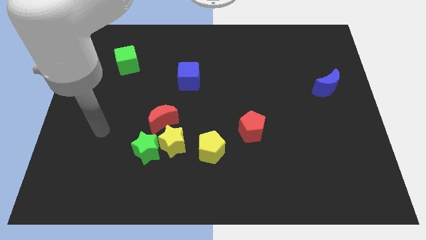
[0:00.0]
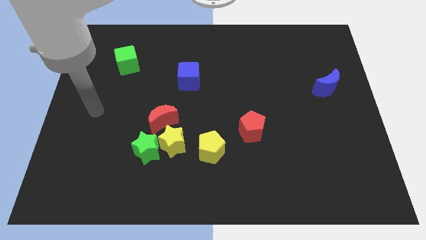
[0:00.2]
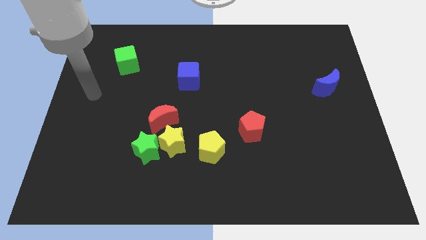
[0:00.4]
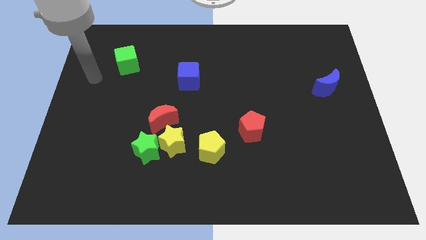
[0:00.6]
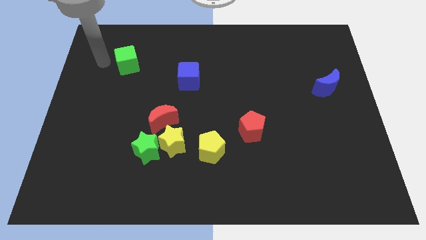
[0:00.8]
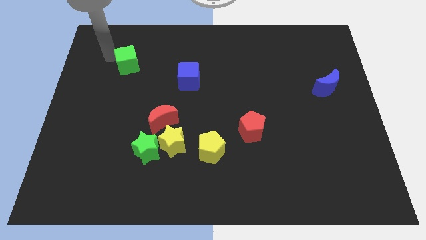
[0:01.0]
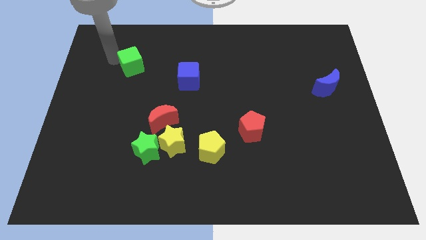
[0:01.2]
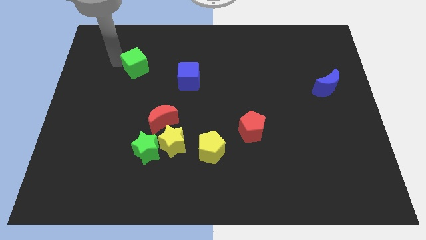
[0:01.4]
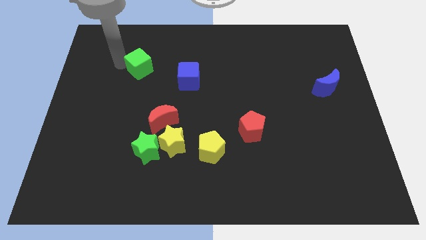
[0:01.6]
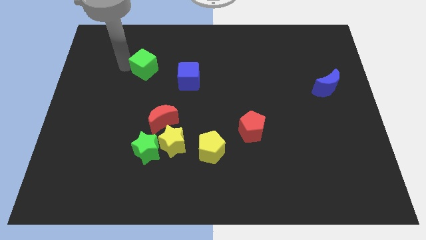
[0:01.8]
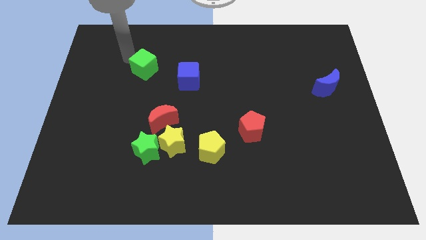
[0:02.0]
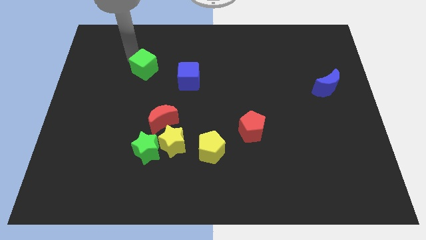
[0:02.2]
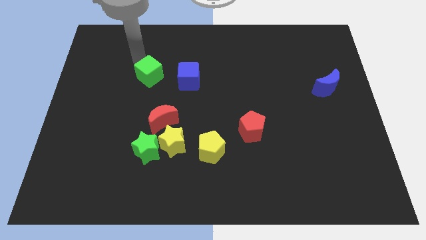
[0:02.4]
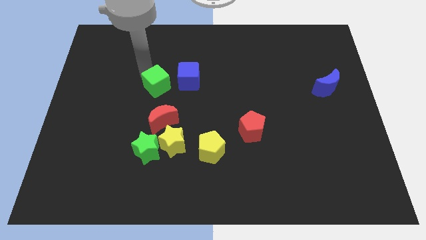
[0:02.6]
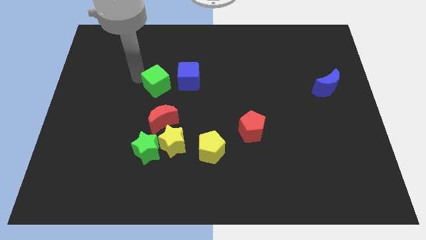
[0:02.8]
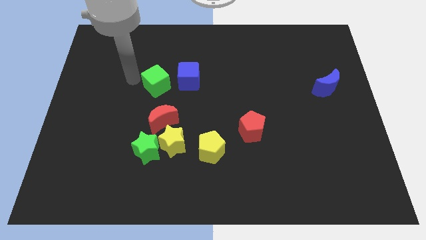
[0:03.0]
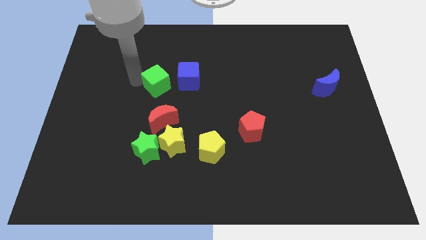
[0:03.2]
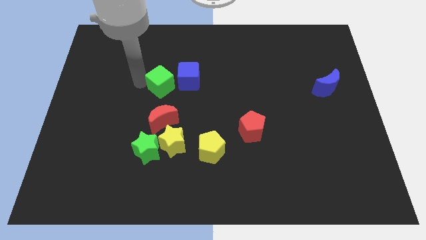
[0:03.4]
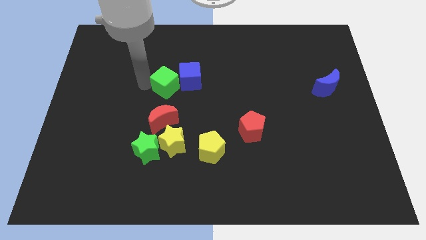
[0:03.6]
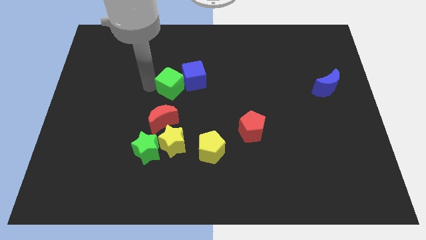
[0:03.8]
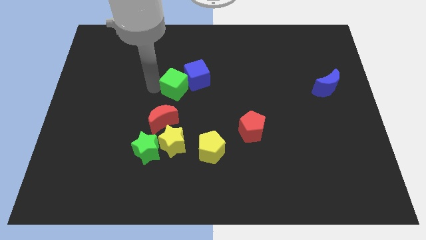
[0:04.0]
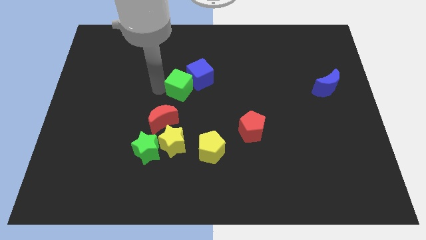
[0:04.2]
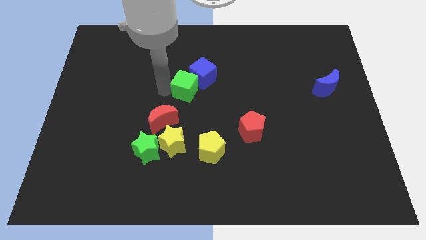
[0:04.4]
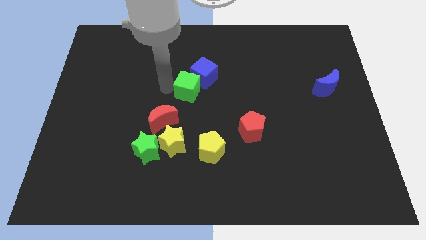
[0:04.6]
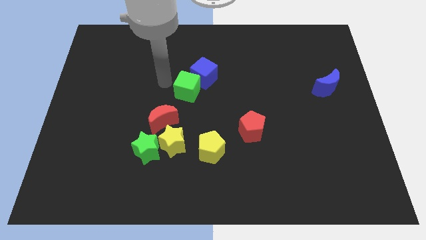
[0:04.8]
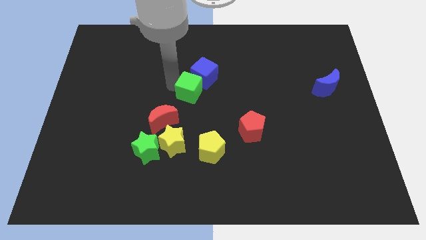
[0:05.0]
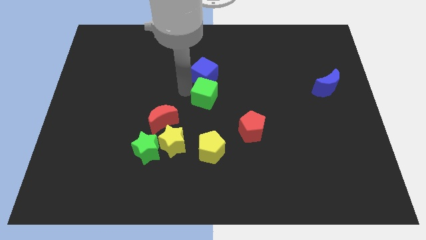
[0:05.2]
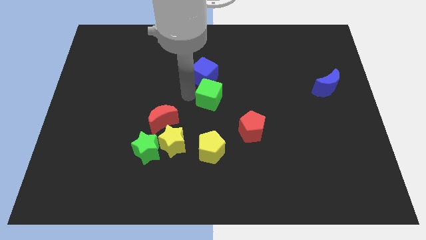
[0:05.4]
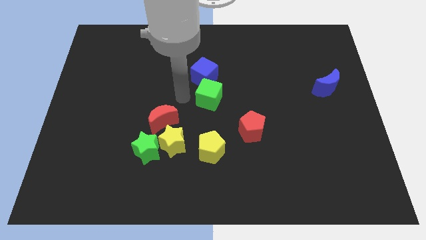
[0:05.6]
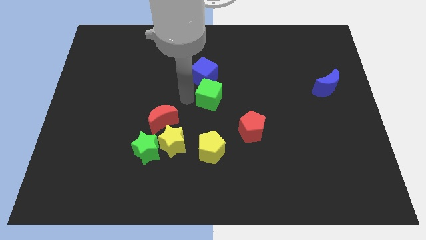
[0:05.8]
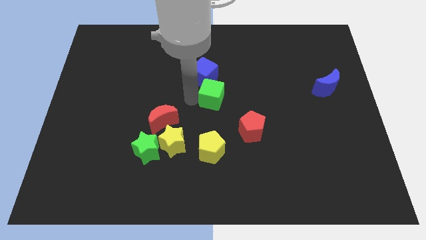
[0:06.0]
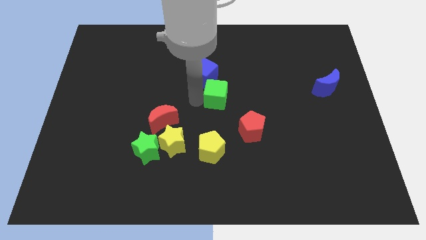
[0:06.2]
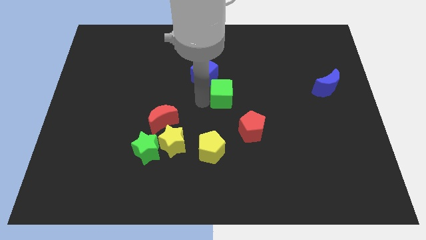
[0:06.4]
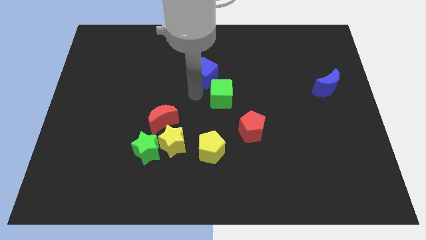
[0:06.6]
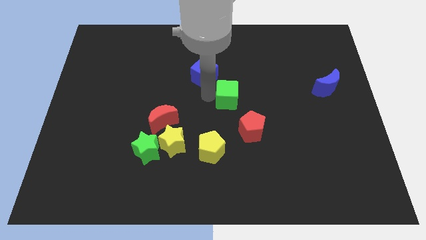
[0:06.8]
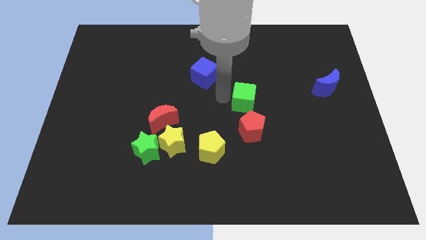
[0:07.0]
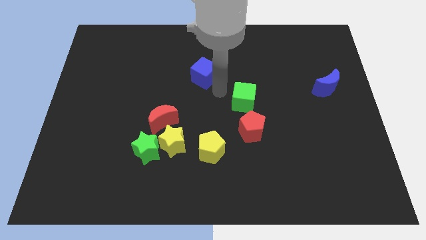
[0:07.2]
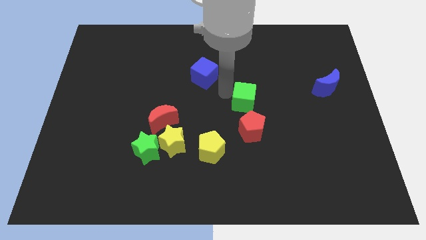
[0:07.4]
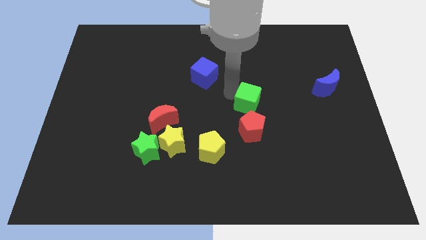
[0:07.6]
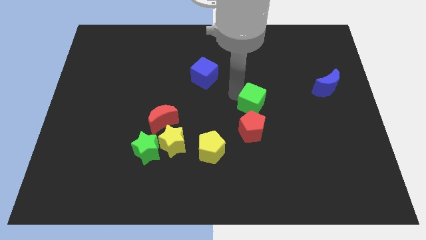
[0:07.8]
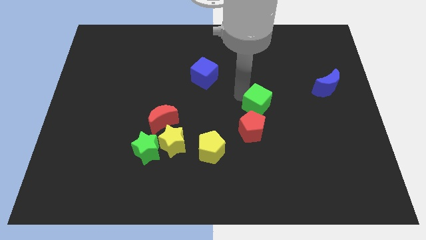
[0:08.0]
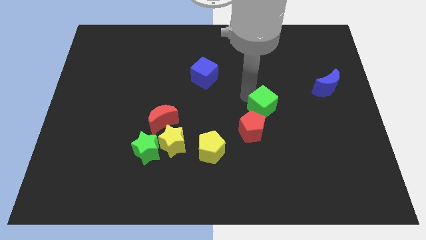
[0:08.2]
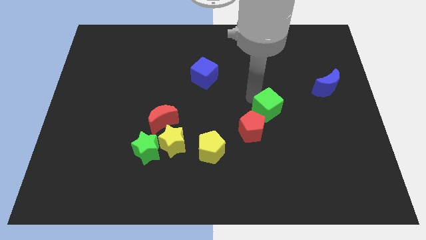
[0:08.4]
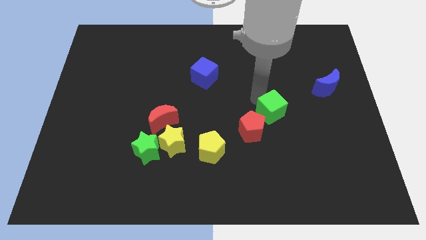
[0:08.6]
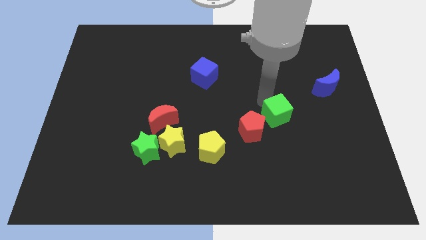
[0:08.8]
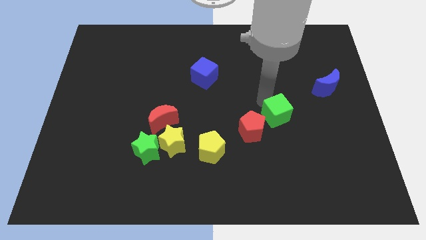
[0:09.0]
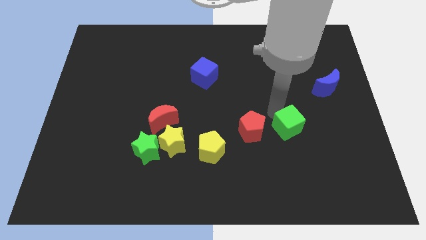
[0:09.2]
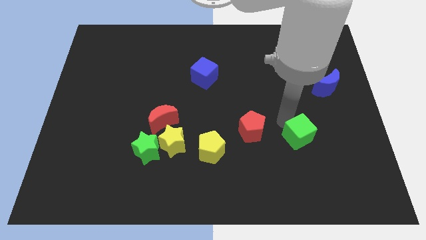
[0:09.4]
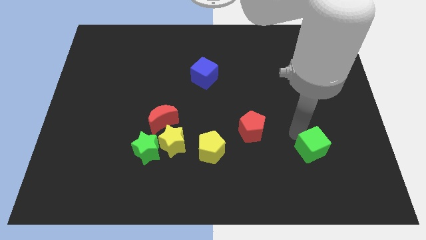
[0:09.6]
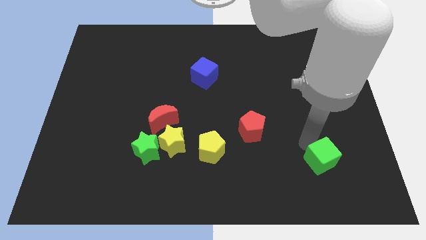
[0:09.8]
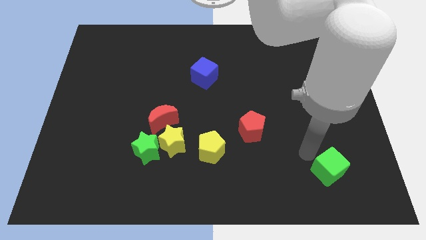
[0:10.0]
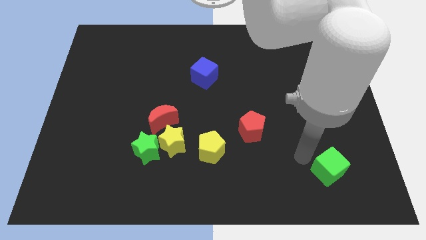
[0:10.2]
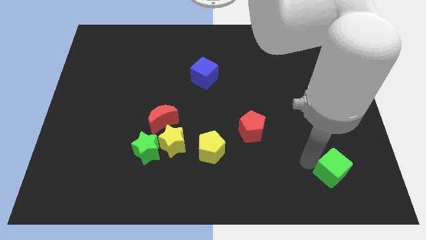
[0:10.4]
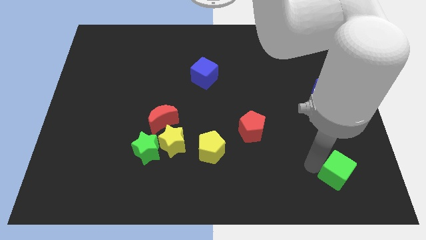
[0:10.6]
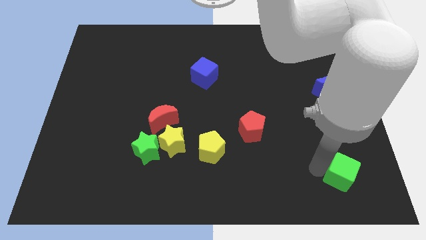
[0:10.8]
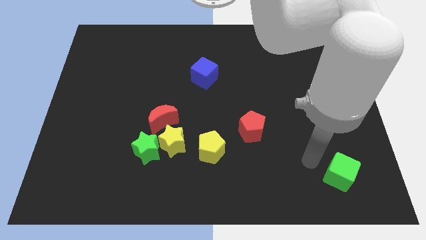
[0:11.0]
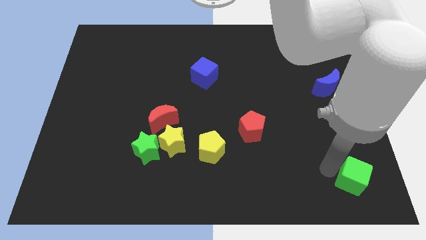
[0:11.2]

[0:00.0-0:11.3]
move the green cube to the bottom right of the board

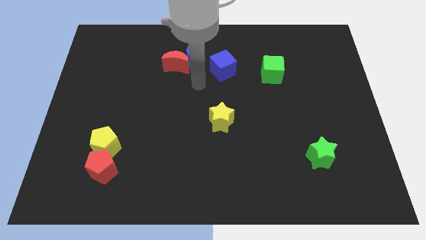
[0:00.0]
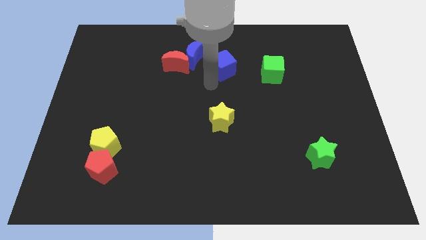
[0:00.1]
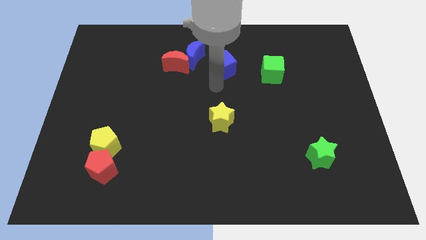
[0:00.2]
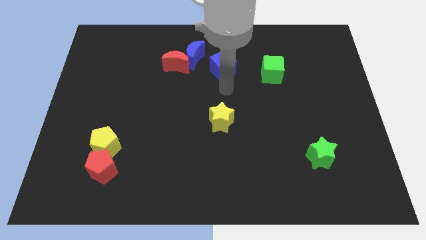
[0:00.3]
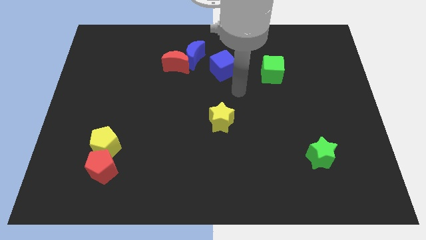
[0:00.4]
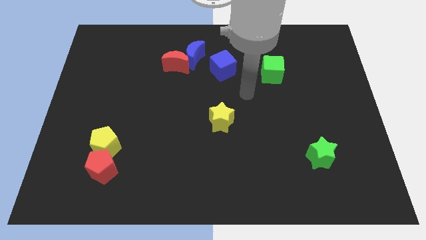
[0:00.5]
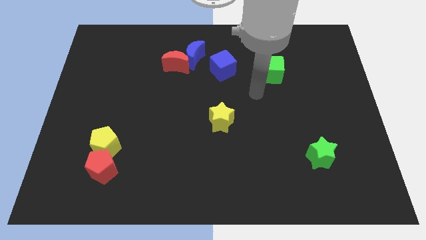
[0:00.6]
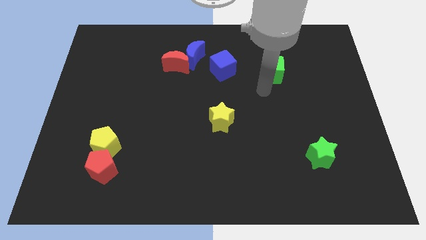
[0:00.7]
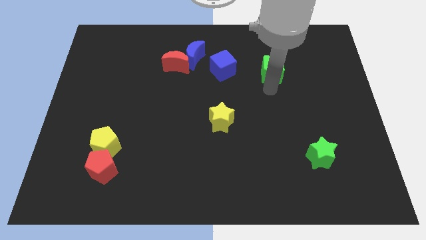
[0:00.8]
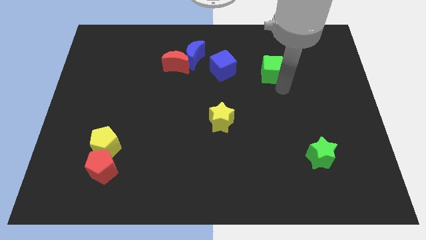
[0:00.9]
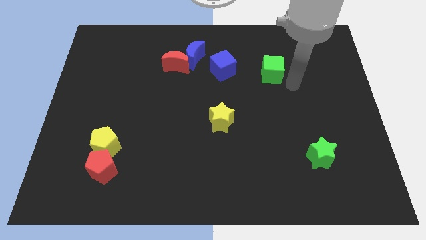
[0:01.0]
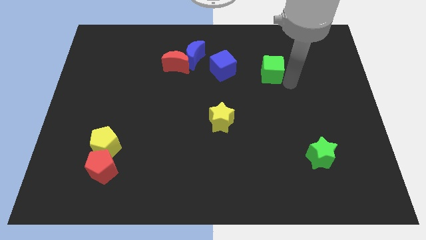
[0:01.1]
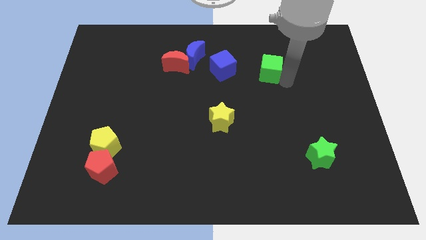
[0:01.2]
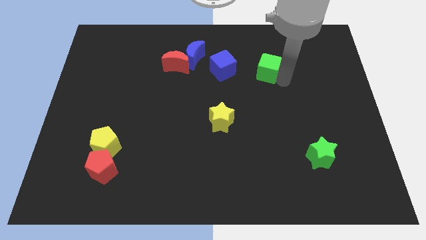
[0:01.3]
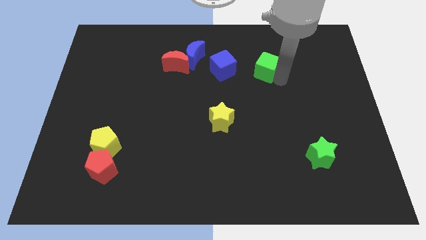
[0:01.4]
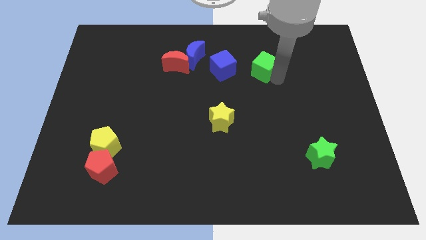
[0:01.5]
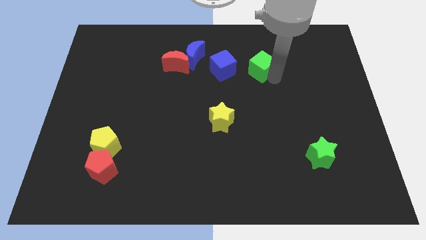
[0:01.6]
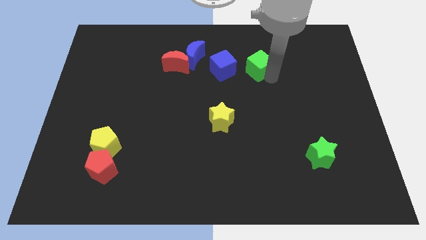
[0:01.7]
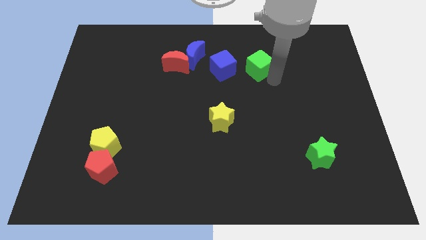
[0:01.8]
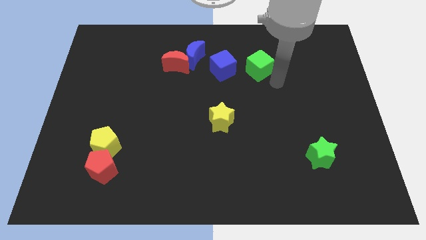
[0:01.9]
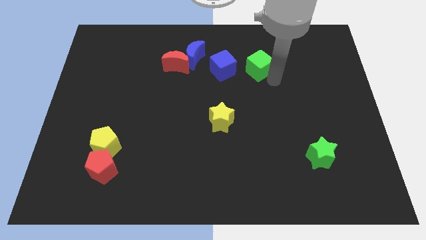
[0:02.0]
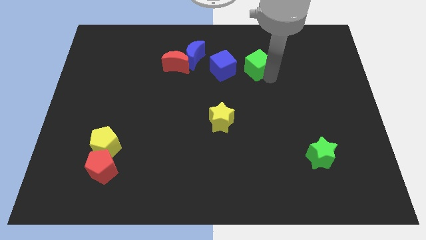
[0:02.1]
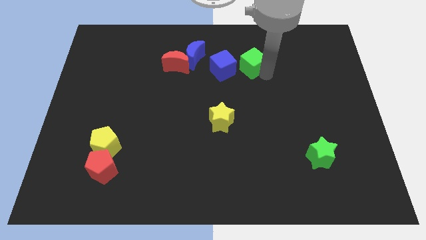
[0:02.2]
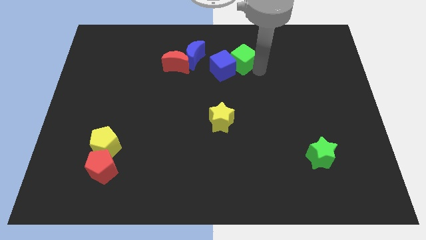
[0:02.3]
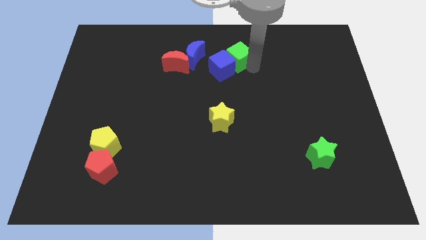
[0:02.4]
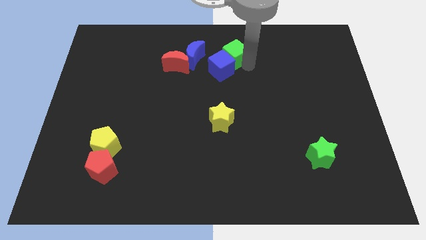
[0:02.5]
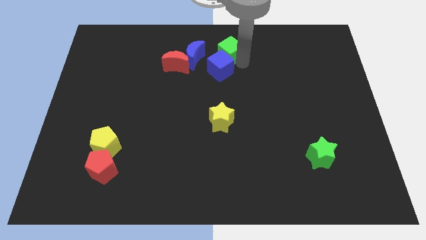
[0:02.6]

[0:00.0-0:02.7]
move the green cube to the top side
